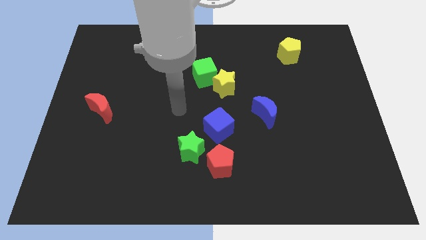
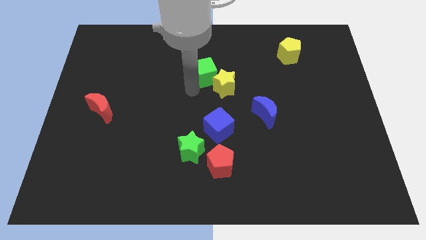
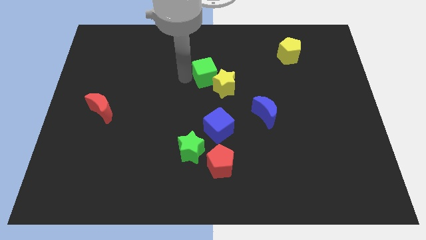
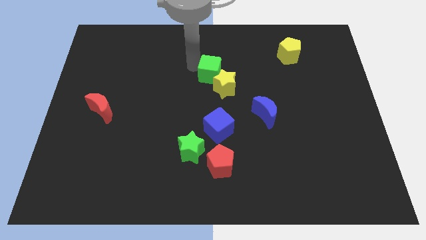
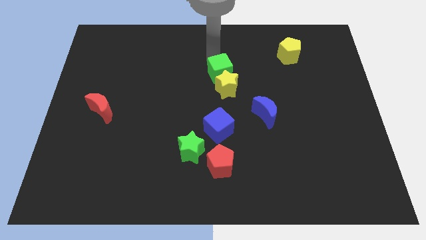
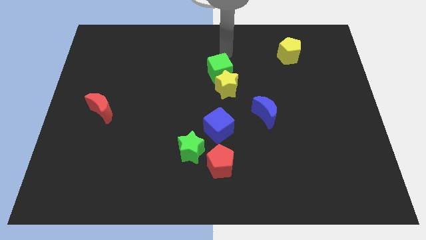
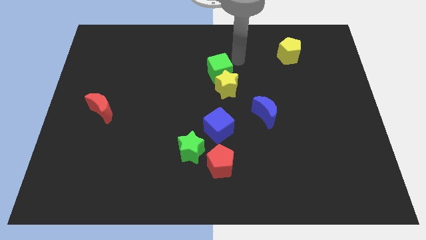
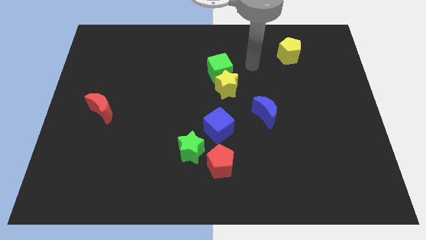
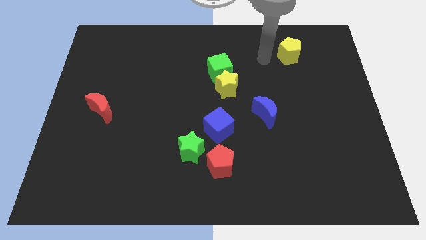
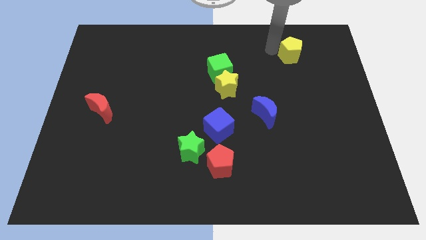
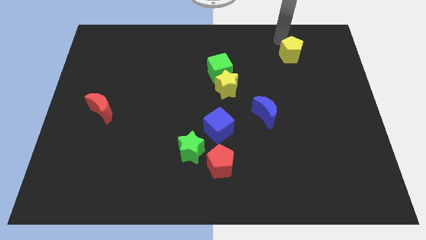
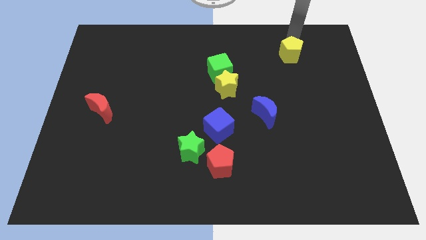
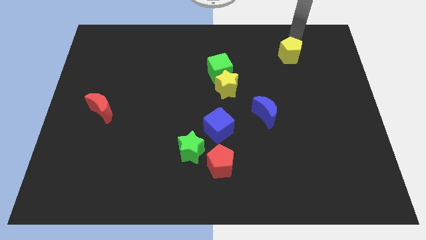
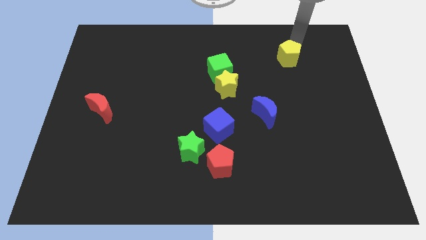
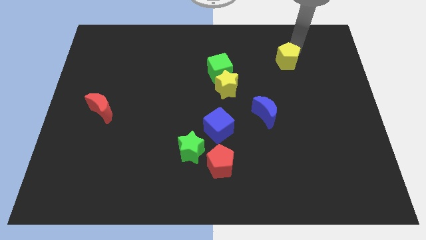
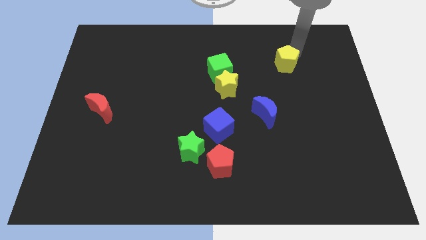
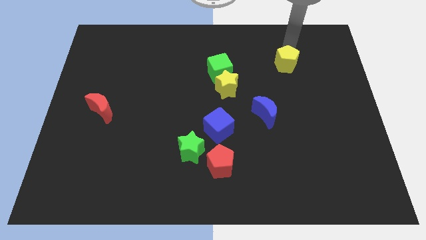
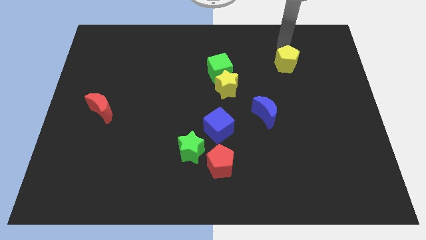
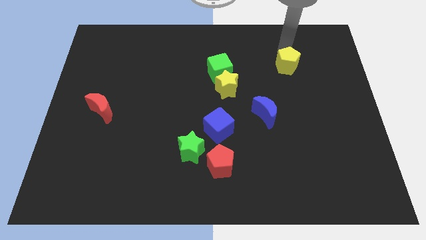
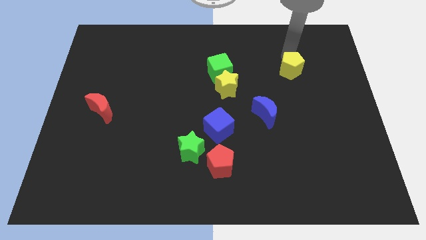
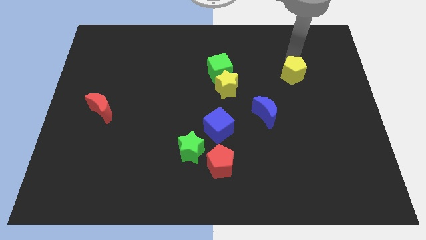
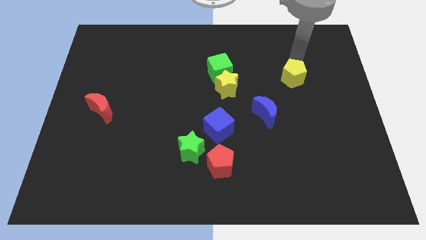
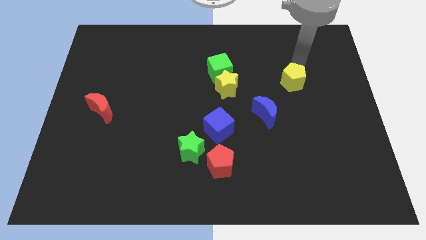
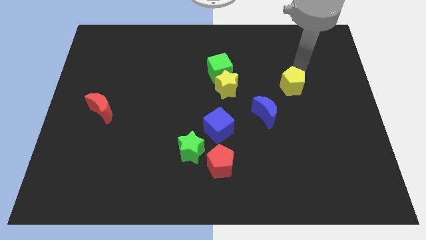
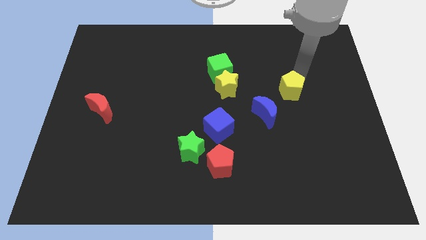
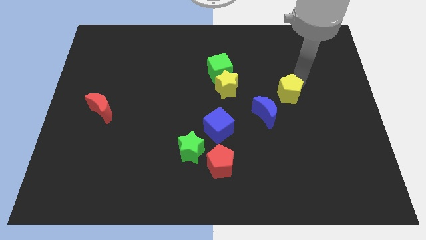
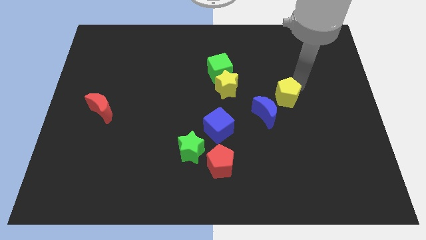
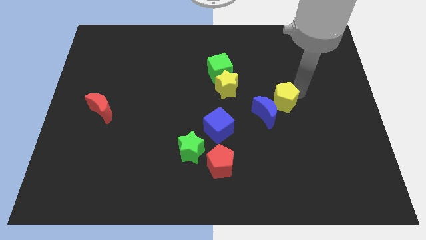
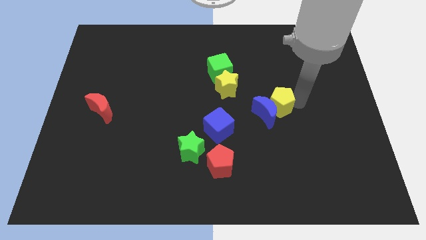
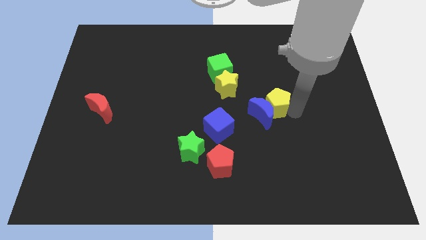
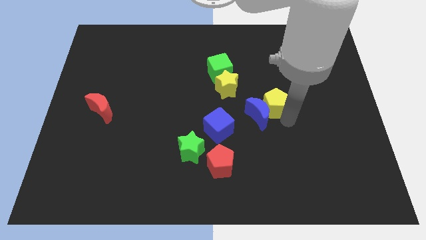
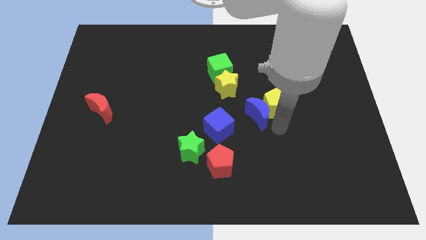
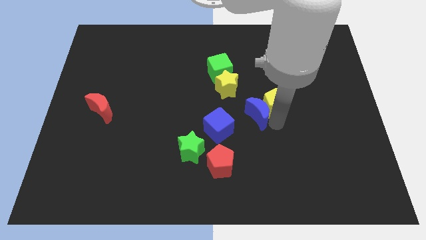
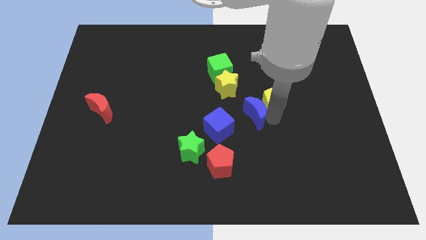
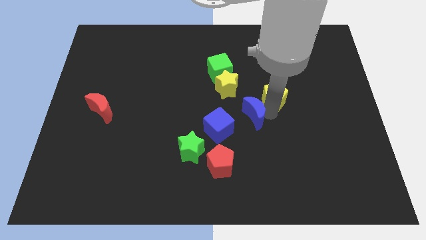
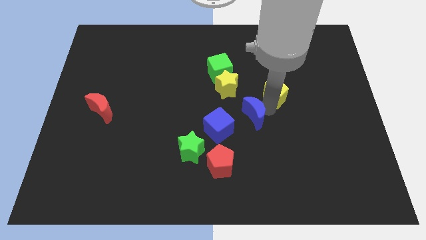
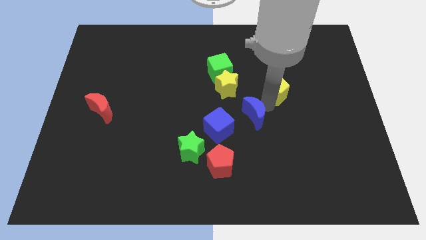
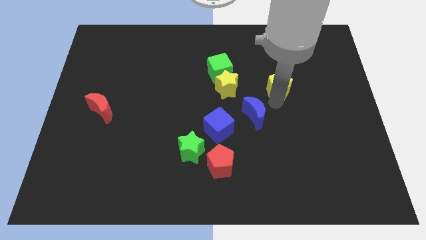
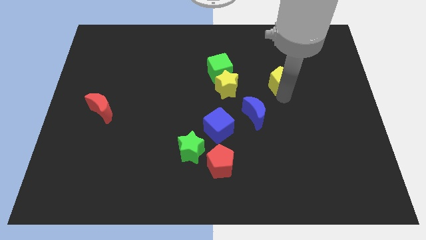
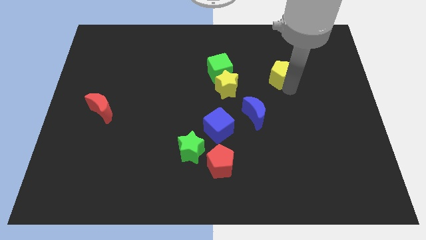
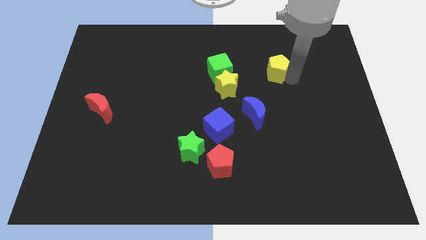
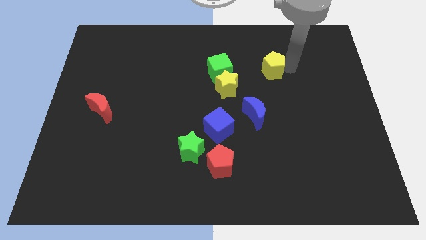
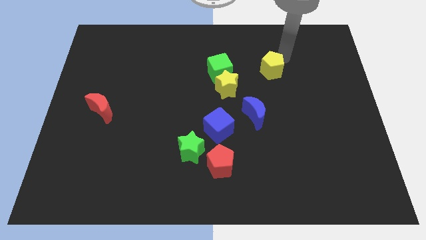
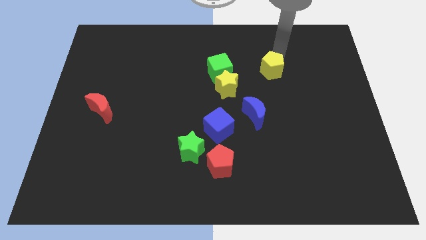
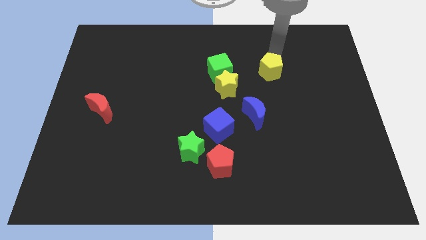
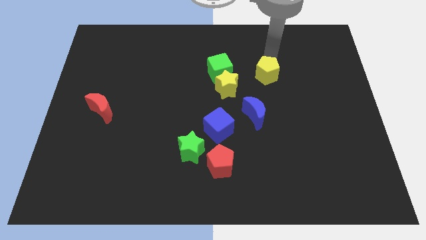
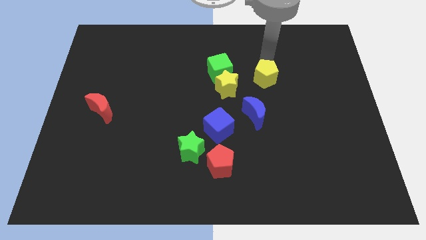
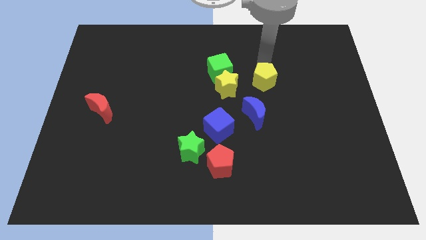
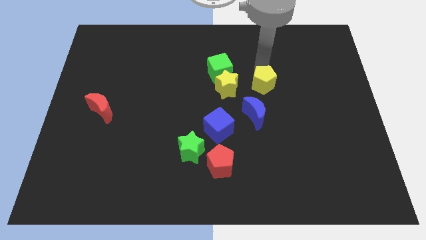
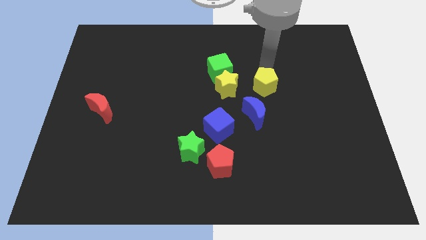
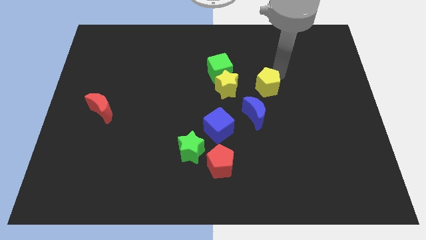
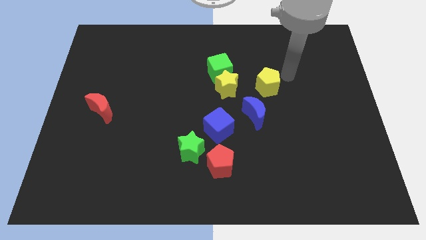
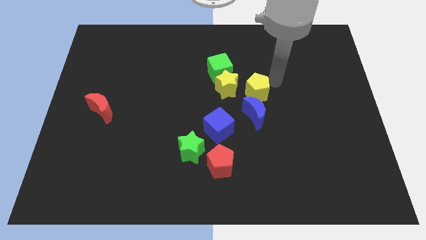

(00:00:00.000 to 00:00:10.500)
put the yellow pentagon to the middle of the board

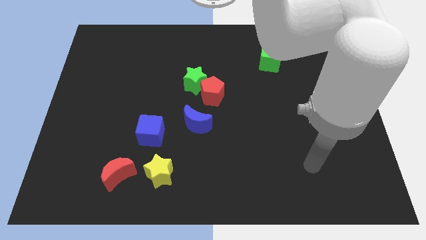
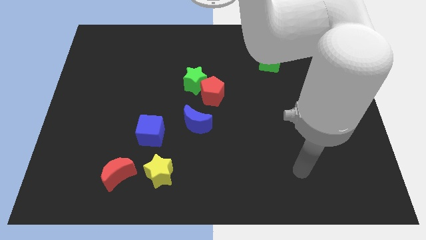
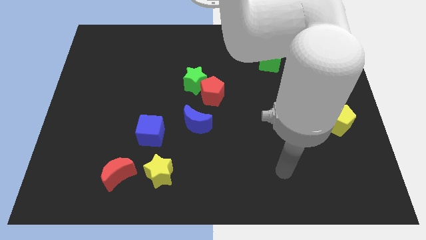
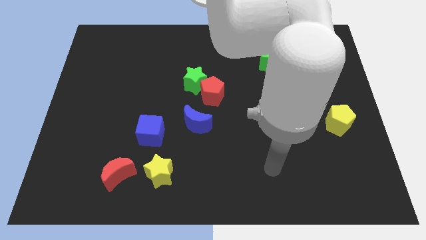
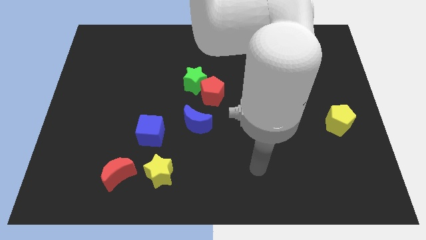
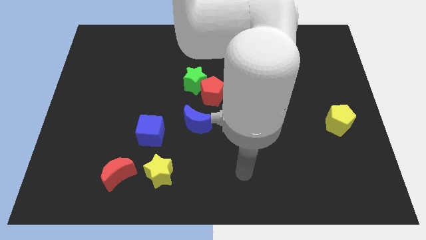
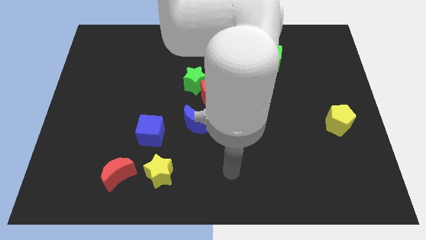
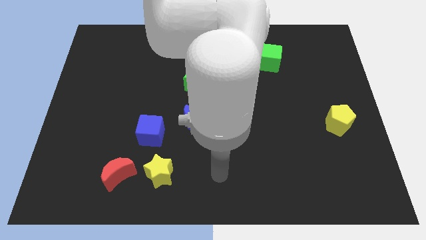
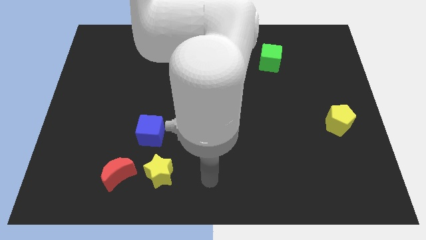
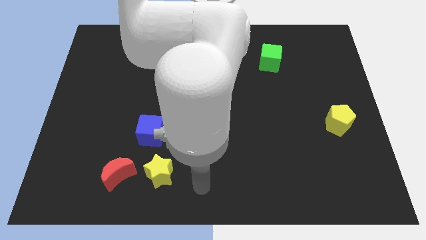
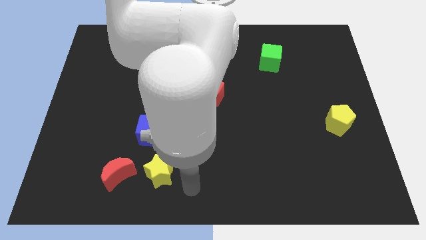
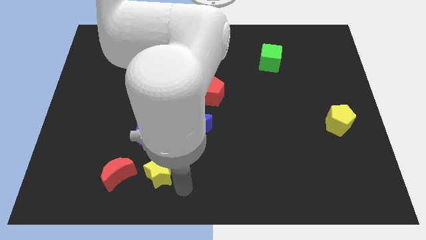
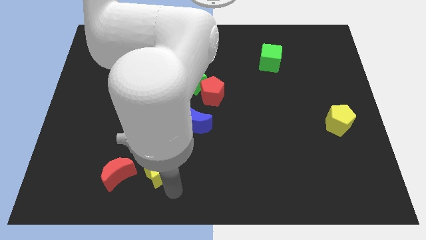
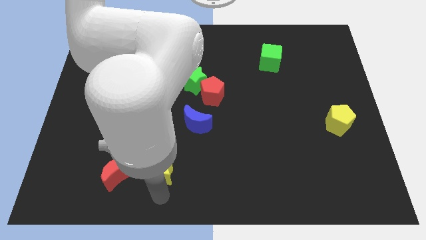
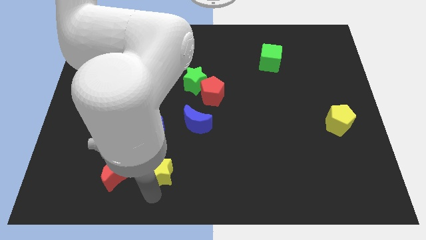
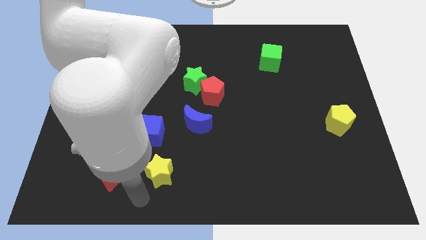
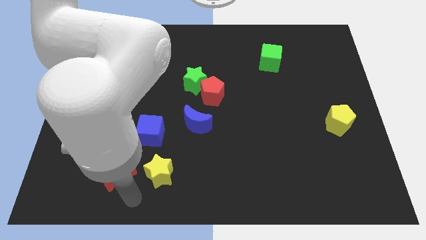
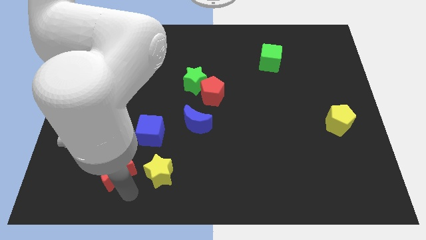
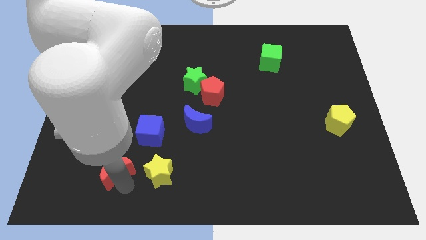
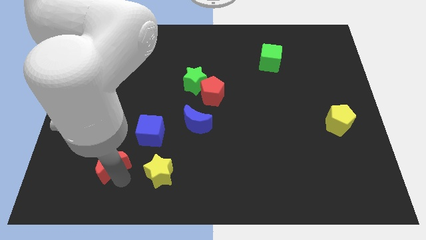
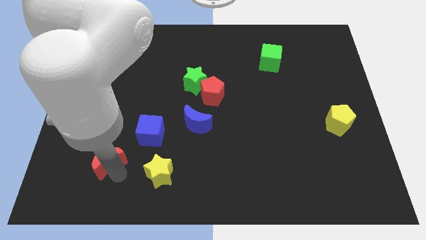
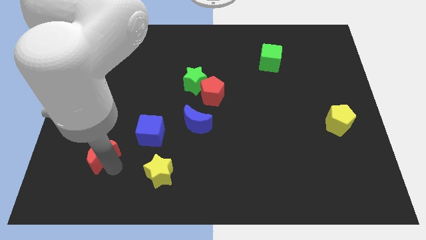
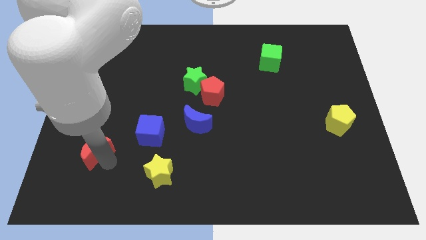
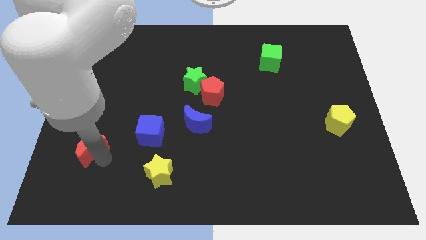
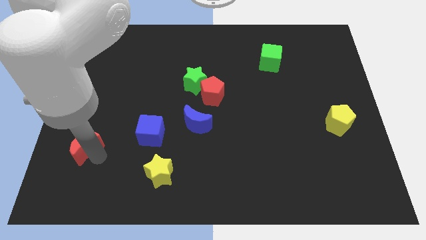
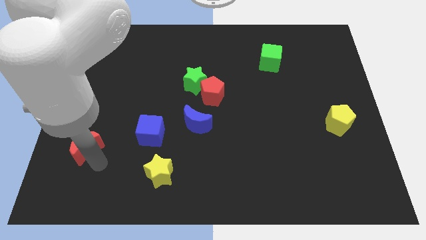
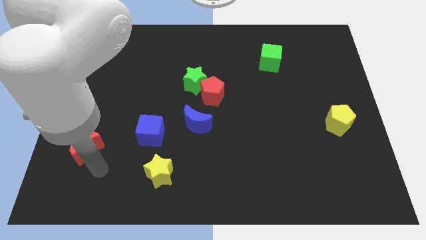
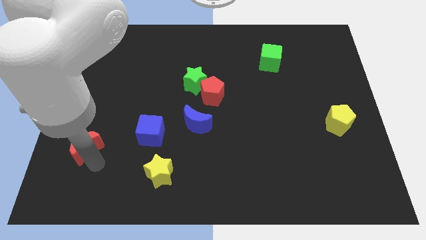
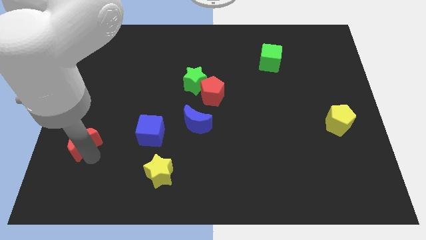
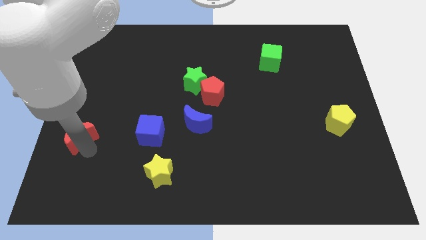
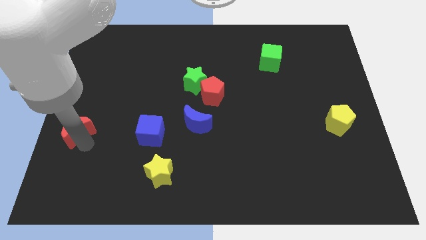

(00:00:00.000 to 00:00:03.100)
push the red moon to the left side of the board
